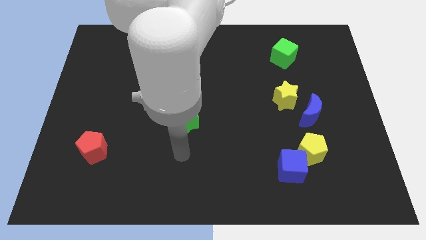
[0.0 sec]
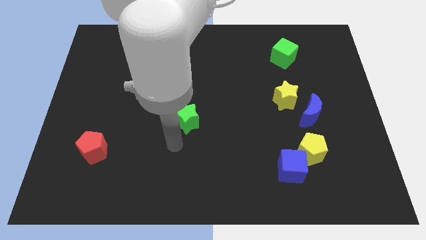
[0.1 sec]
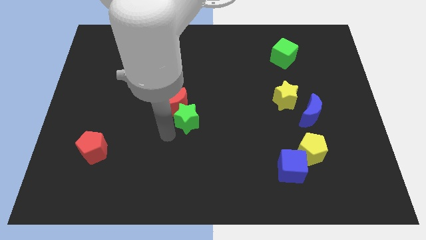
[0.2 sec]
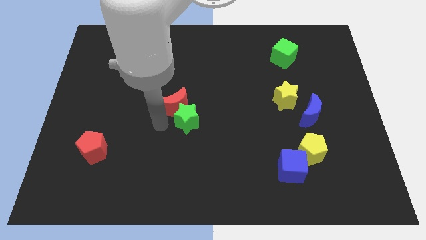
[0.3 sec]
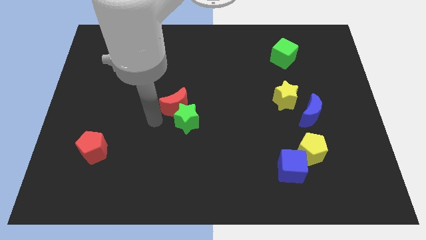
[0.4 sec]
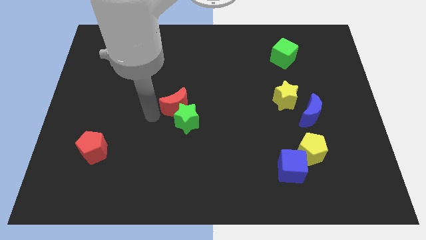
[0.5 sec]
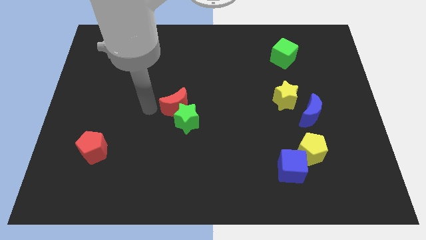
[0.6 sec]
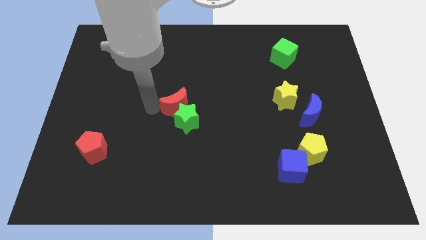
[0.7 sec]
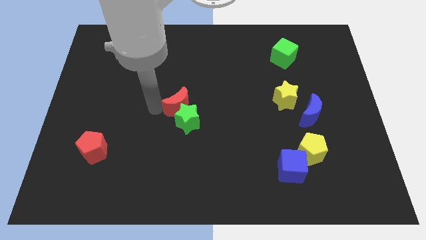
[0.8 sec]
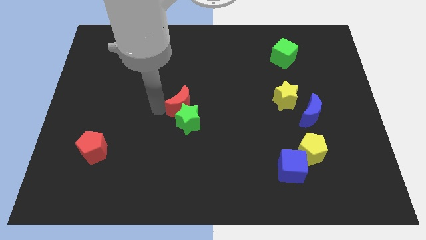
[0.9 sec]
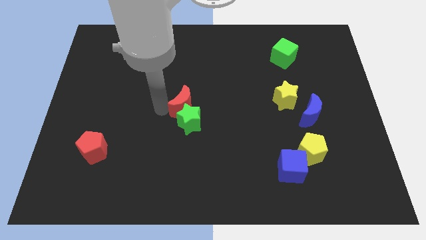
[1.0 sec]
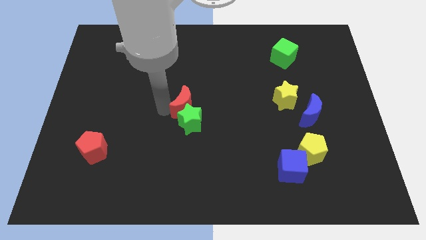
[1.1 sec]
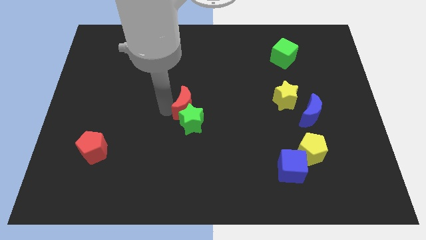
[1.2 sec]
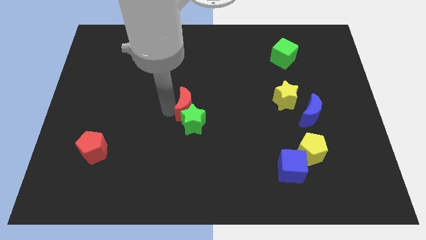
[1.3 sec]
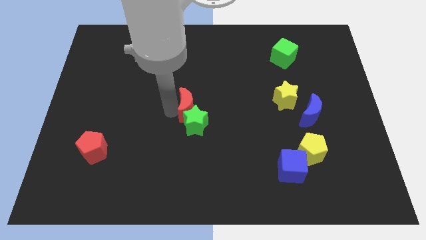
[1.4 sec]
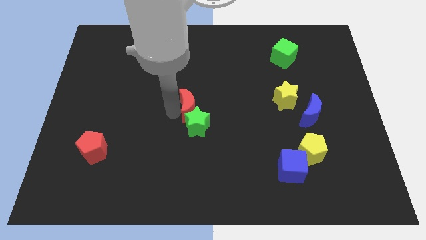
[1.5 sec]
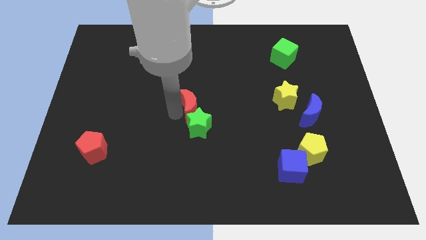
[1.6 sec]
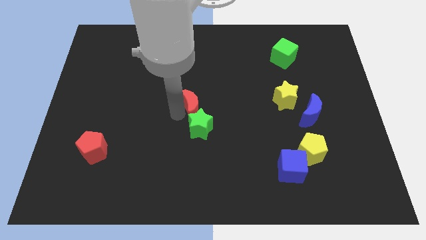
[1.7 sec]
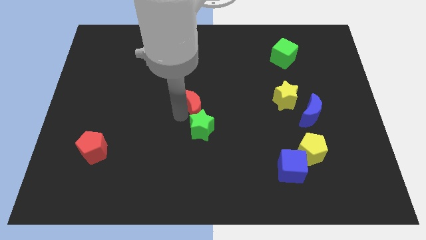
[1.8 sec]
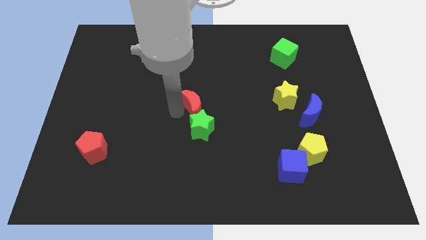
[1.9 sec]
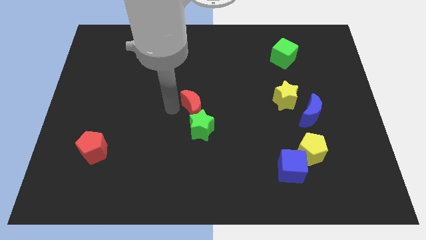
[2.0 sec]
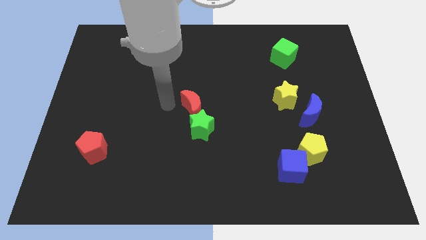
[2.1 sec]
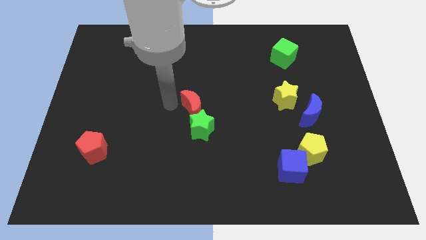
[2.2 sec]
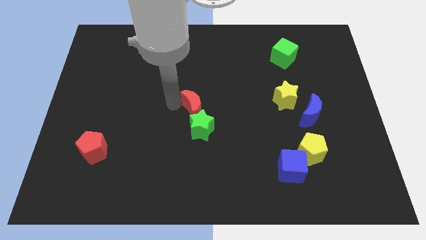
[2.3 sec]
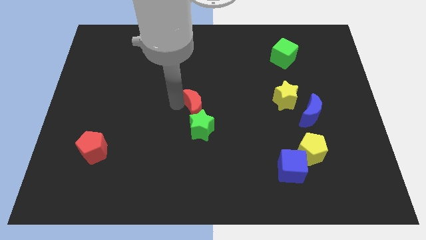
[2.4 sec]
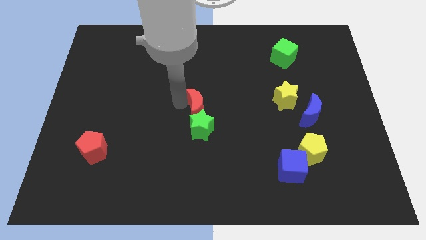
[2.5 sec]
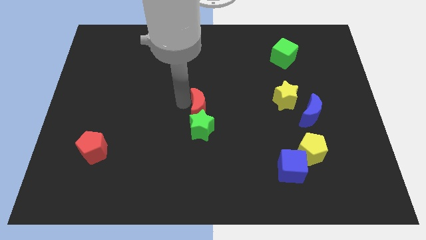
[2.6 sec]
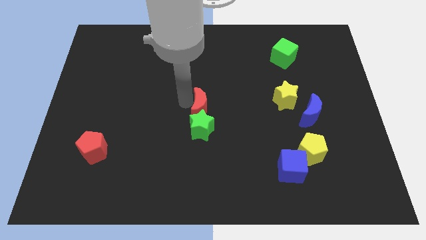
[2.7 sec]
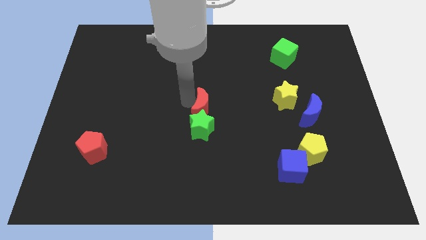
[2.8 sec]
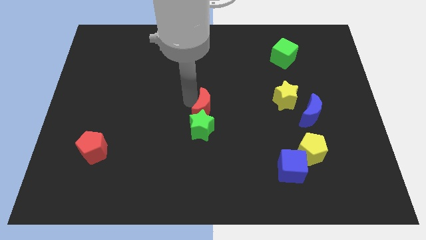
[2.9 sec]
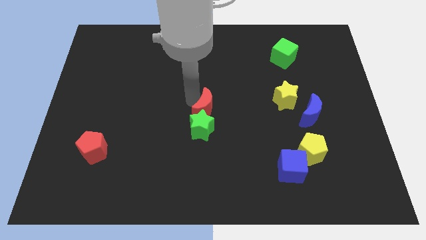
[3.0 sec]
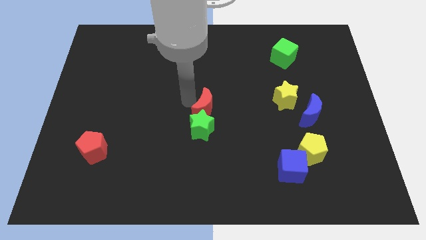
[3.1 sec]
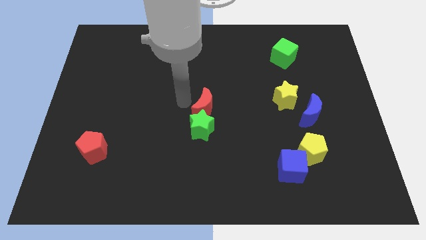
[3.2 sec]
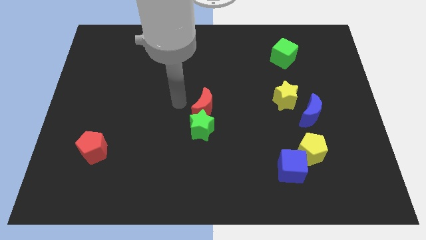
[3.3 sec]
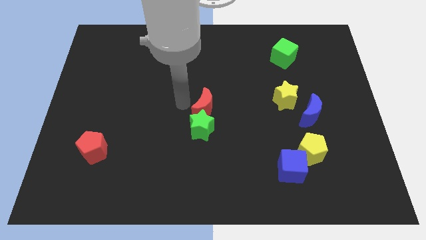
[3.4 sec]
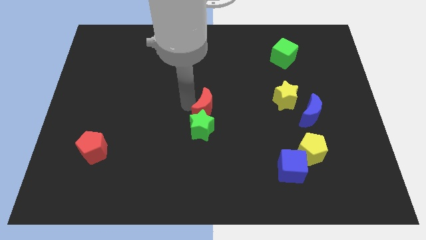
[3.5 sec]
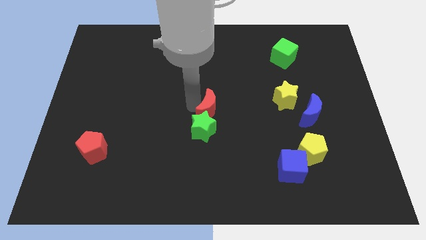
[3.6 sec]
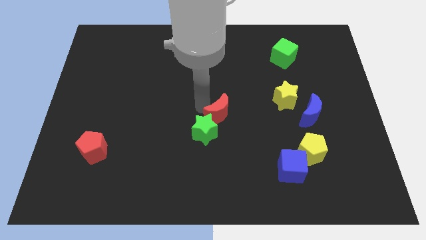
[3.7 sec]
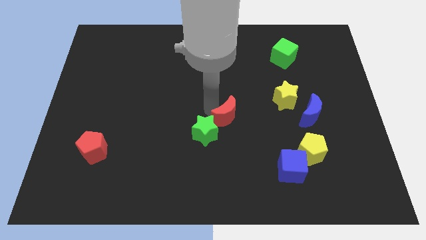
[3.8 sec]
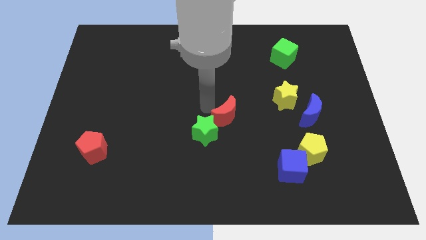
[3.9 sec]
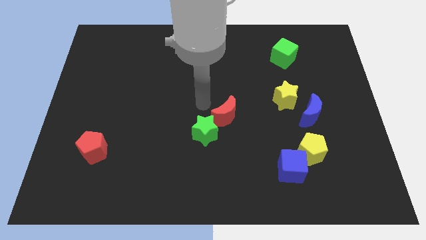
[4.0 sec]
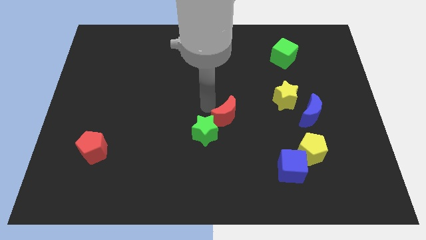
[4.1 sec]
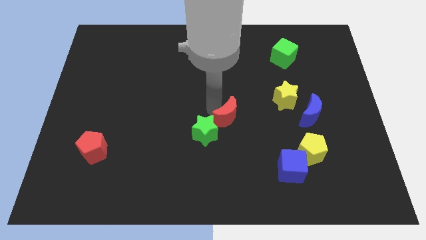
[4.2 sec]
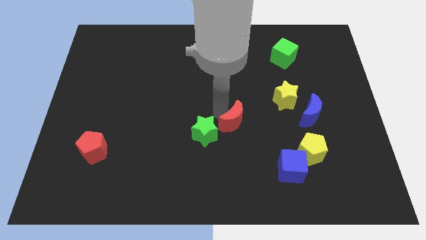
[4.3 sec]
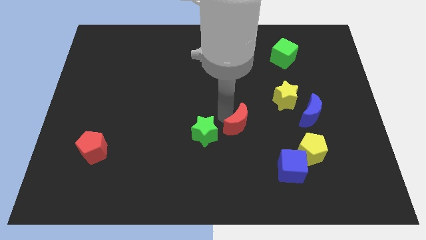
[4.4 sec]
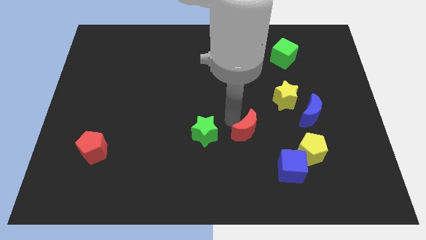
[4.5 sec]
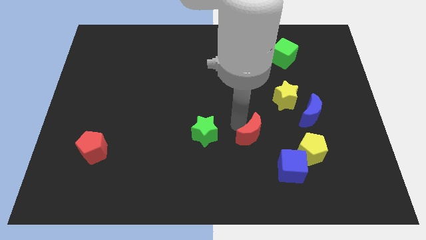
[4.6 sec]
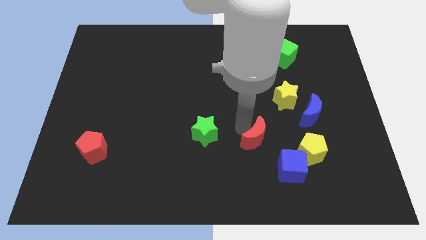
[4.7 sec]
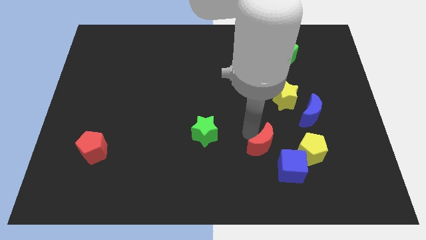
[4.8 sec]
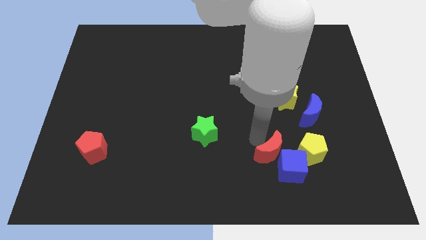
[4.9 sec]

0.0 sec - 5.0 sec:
slide the red moon close to the blue cube

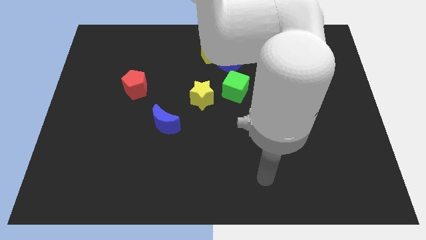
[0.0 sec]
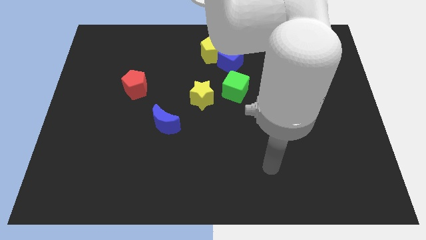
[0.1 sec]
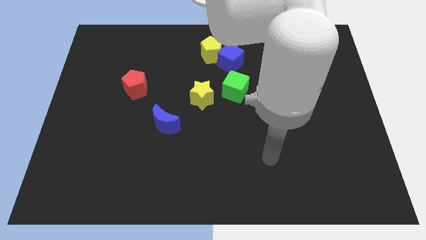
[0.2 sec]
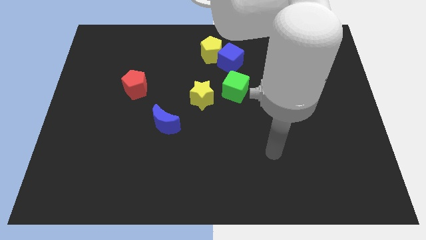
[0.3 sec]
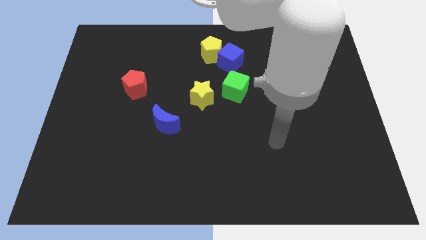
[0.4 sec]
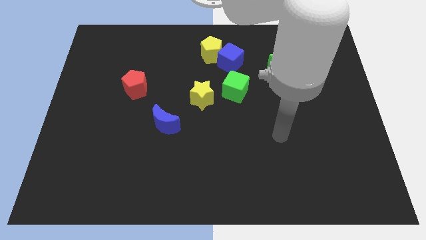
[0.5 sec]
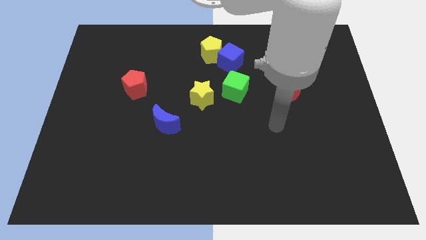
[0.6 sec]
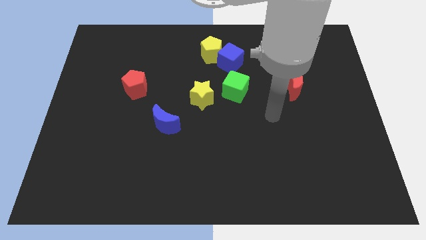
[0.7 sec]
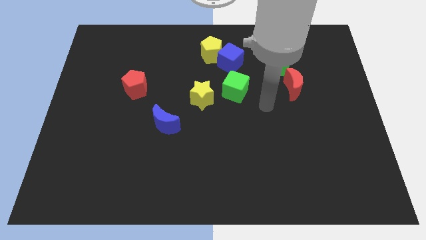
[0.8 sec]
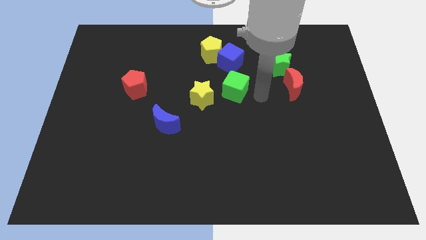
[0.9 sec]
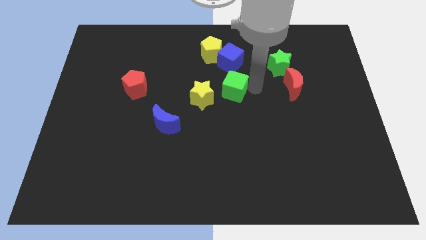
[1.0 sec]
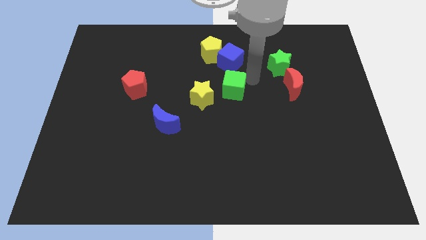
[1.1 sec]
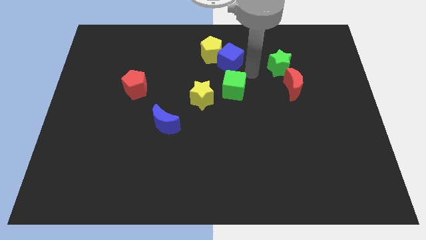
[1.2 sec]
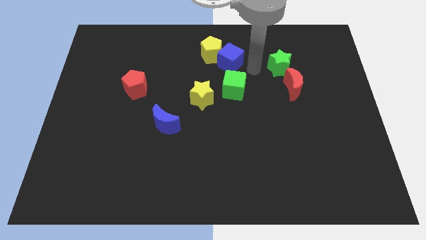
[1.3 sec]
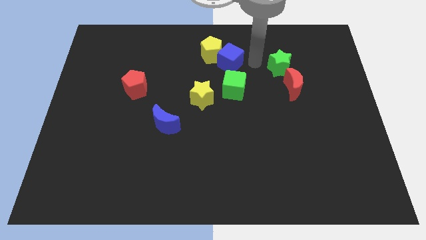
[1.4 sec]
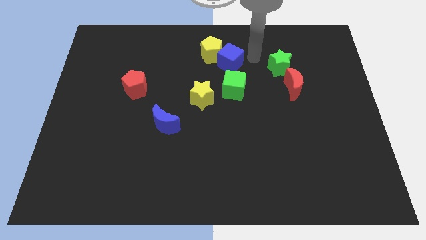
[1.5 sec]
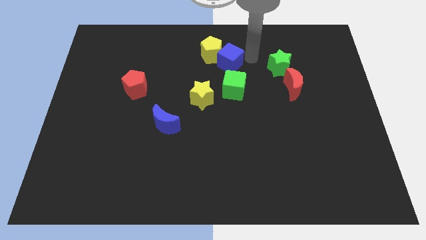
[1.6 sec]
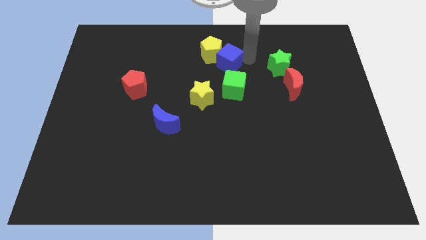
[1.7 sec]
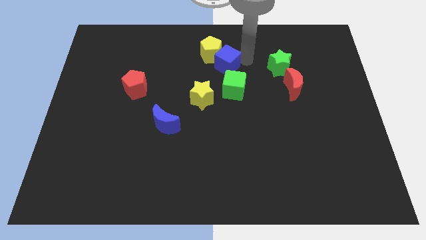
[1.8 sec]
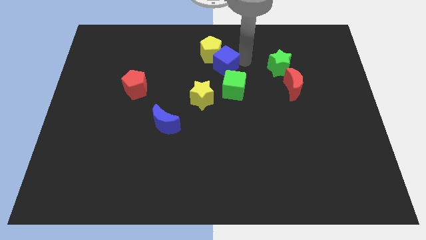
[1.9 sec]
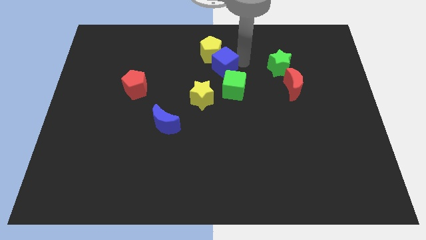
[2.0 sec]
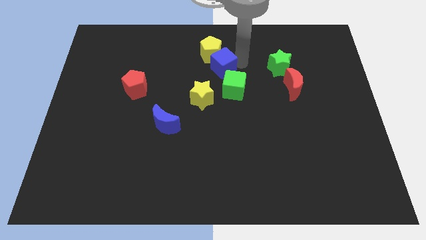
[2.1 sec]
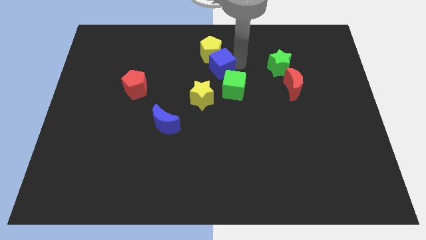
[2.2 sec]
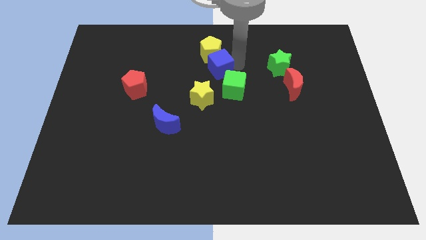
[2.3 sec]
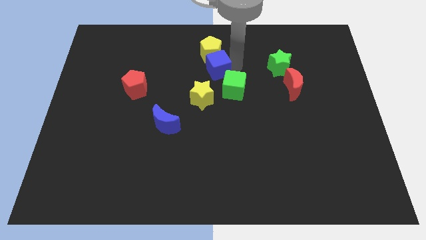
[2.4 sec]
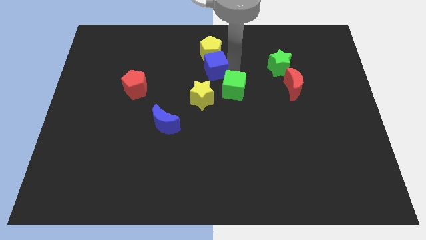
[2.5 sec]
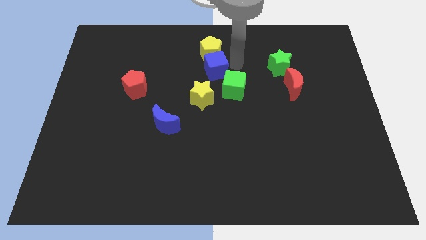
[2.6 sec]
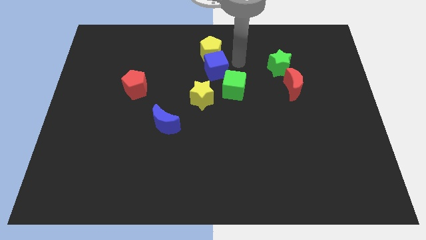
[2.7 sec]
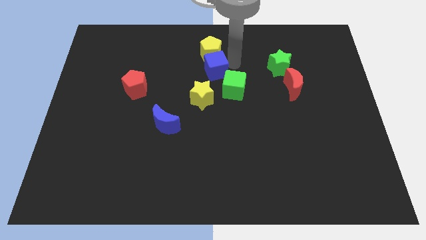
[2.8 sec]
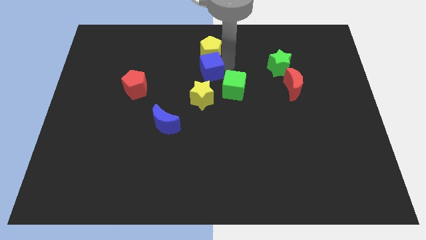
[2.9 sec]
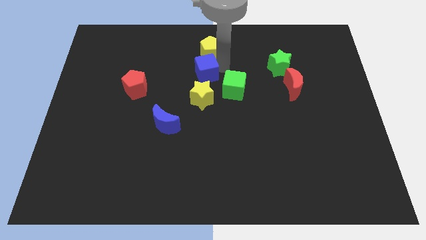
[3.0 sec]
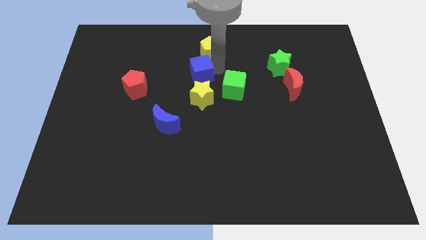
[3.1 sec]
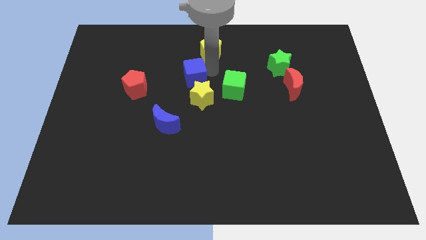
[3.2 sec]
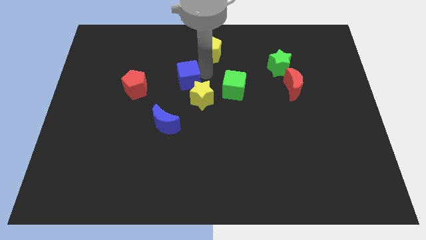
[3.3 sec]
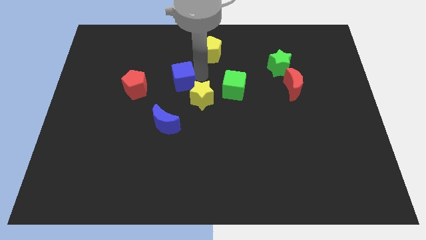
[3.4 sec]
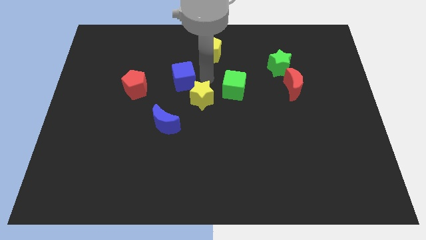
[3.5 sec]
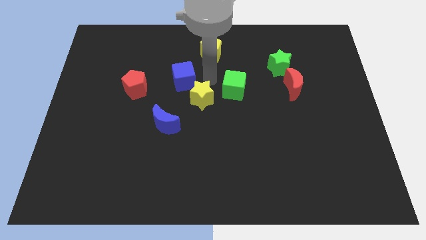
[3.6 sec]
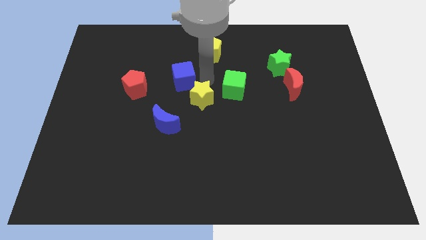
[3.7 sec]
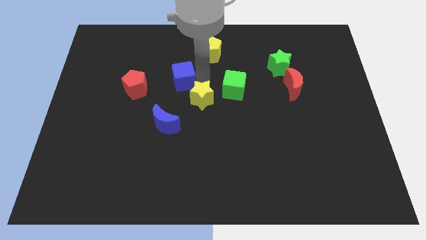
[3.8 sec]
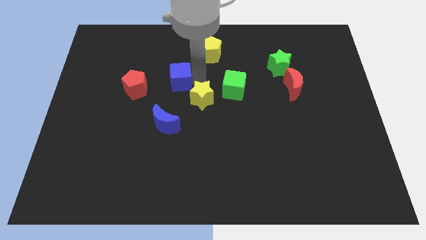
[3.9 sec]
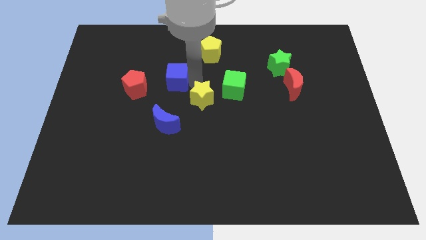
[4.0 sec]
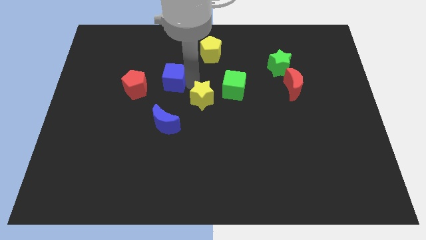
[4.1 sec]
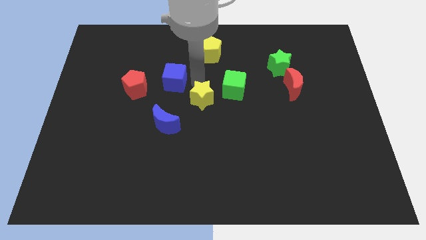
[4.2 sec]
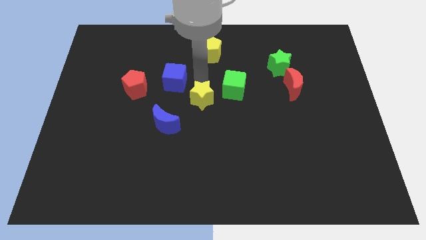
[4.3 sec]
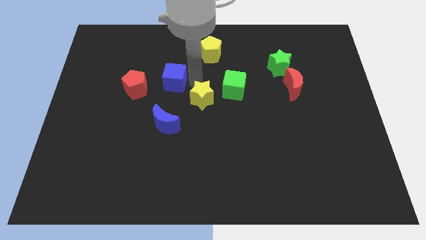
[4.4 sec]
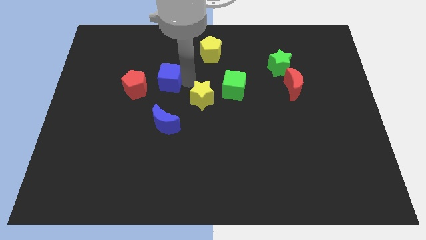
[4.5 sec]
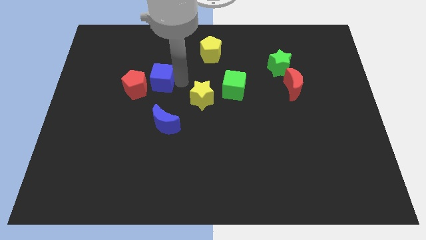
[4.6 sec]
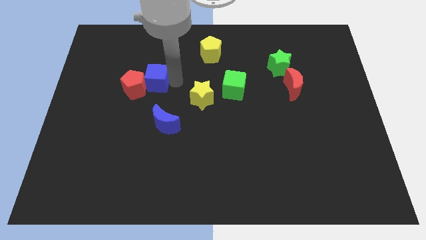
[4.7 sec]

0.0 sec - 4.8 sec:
slide the blue cube next to the red pentagon
